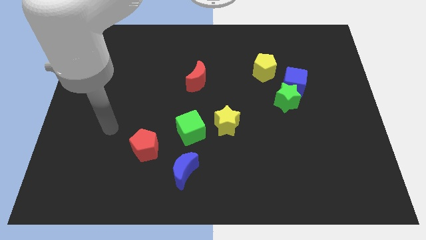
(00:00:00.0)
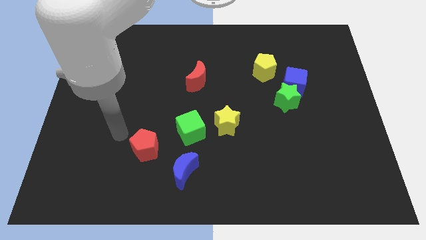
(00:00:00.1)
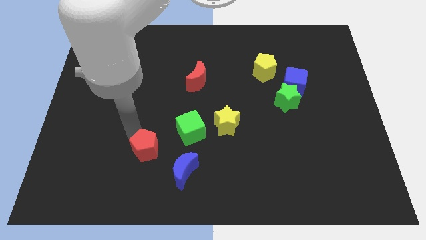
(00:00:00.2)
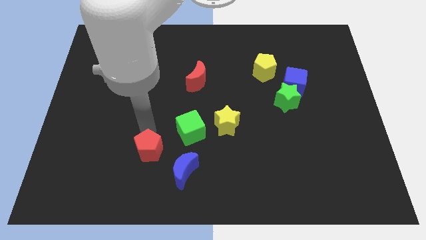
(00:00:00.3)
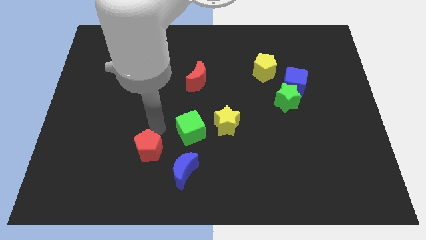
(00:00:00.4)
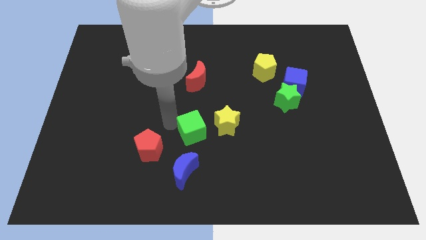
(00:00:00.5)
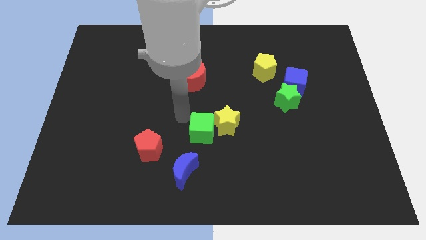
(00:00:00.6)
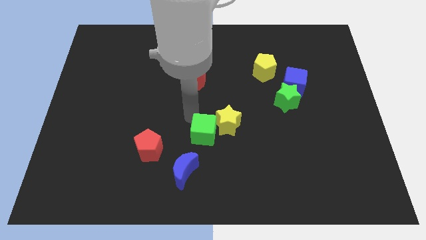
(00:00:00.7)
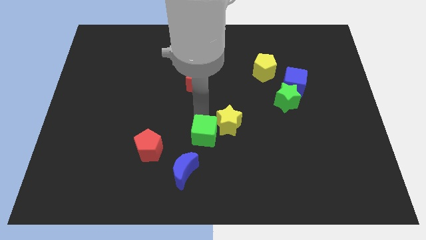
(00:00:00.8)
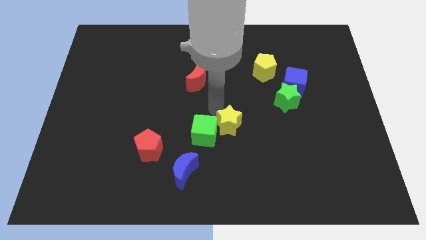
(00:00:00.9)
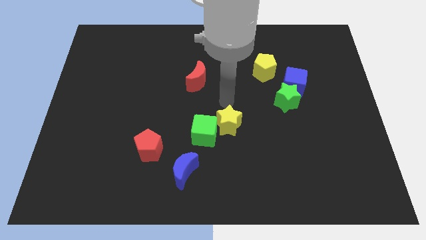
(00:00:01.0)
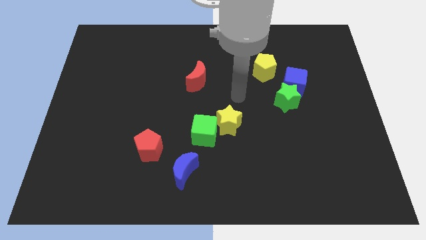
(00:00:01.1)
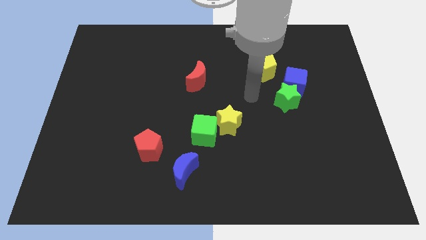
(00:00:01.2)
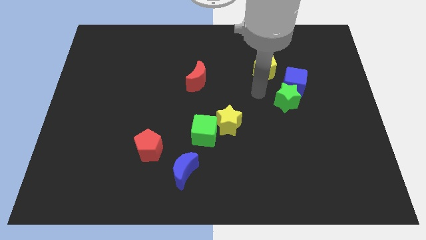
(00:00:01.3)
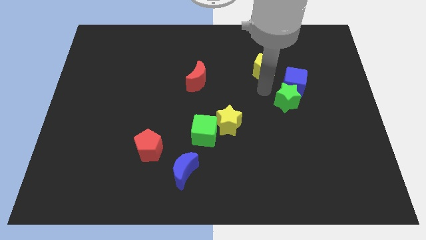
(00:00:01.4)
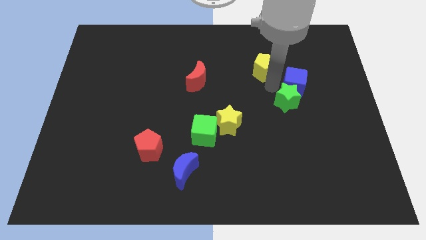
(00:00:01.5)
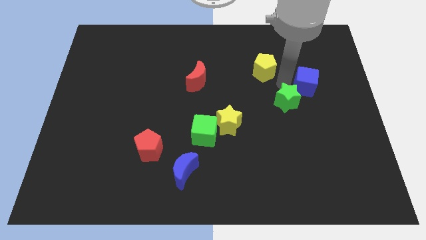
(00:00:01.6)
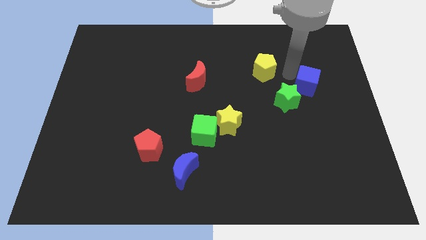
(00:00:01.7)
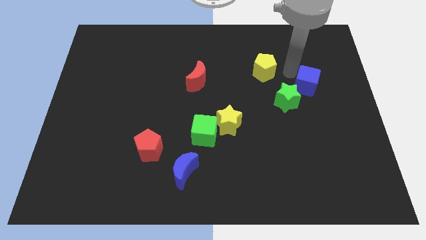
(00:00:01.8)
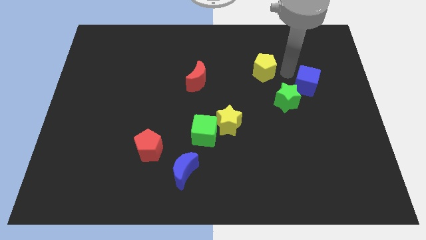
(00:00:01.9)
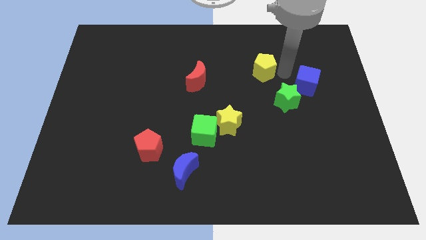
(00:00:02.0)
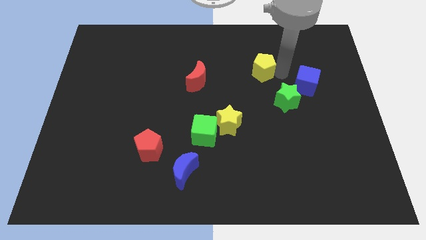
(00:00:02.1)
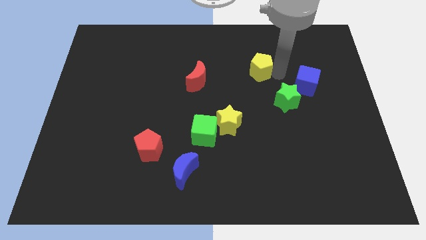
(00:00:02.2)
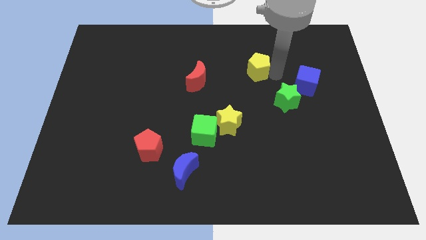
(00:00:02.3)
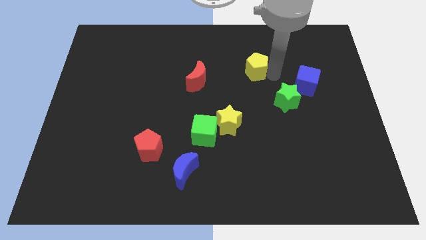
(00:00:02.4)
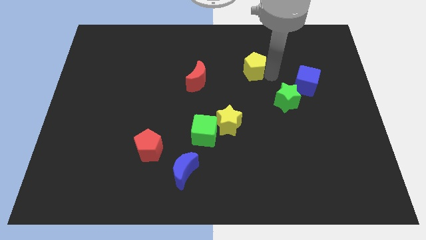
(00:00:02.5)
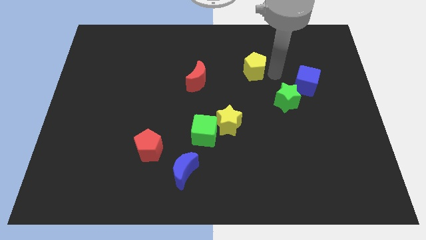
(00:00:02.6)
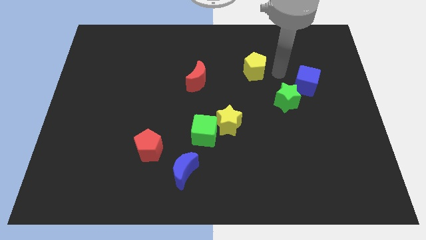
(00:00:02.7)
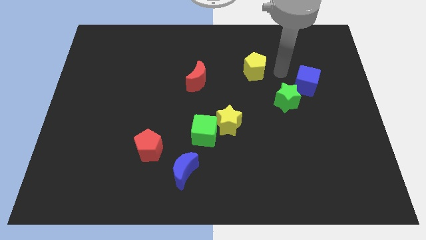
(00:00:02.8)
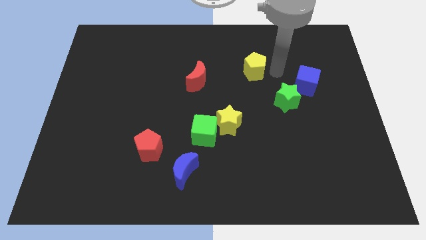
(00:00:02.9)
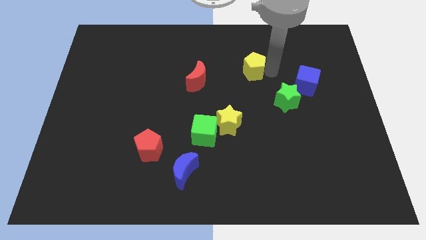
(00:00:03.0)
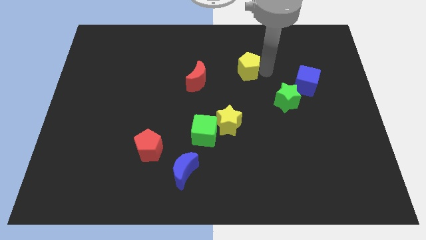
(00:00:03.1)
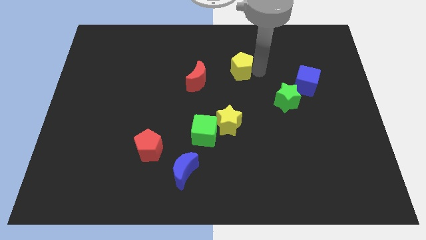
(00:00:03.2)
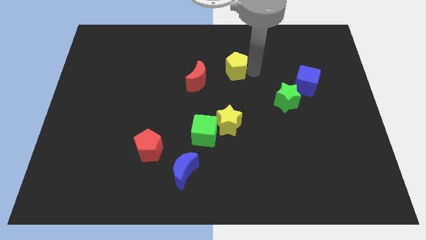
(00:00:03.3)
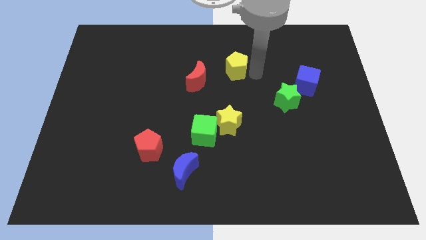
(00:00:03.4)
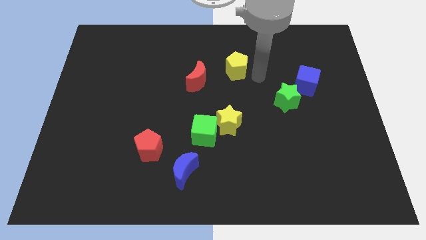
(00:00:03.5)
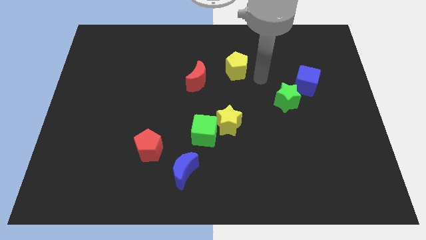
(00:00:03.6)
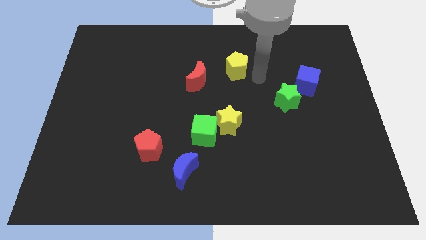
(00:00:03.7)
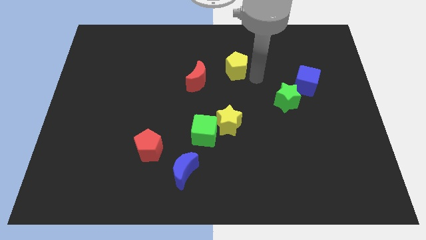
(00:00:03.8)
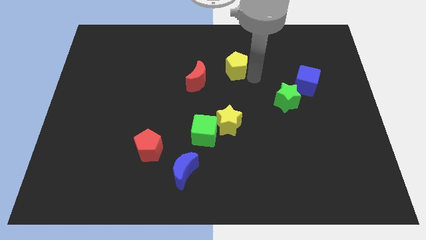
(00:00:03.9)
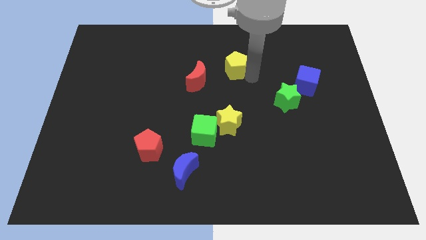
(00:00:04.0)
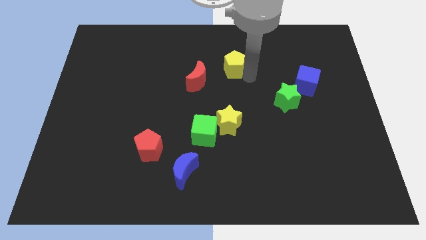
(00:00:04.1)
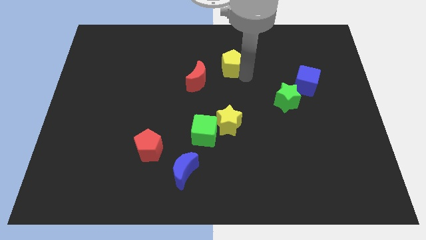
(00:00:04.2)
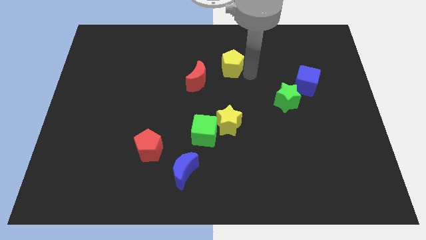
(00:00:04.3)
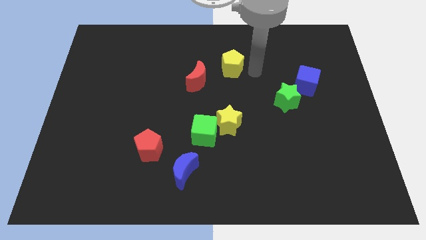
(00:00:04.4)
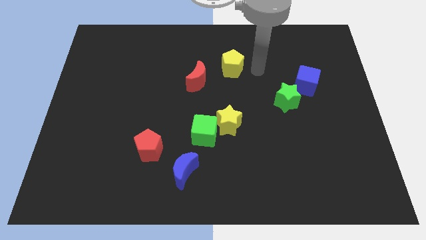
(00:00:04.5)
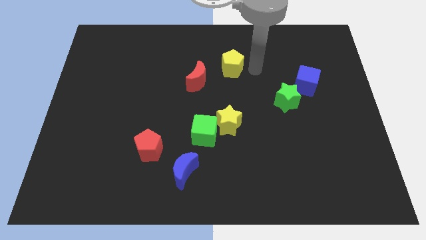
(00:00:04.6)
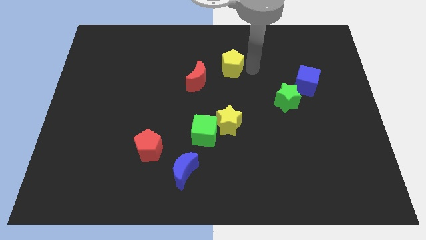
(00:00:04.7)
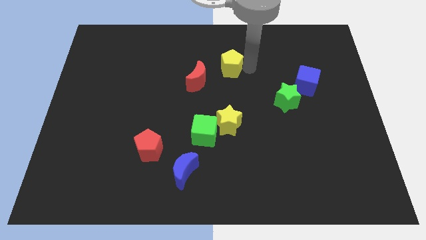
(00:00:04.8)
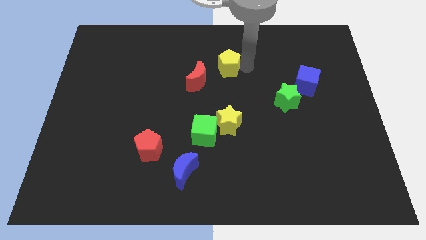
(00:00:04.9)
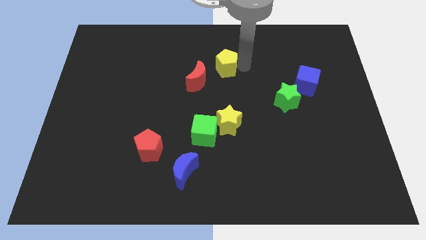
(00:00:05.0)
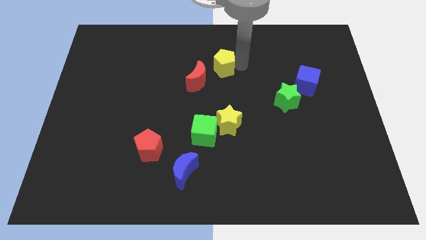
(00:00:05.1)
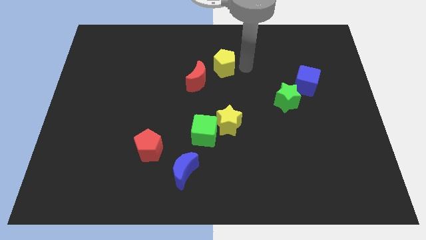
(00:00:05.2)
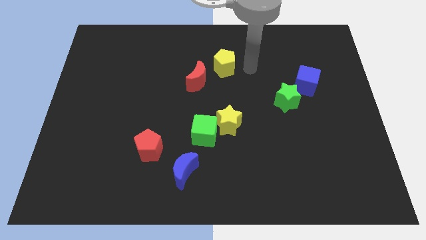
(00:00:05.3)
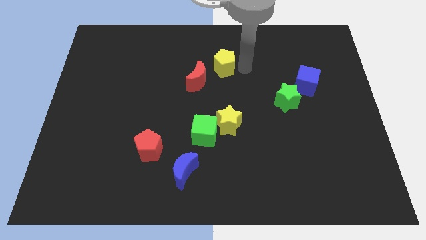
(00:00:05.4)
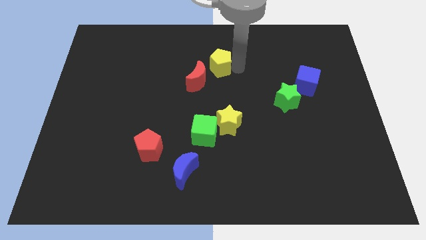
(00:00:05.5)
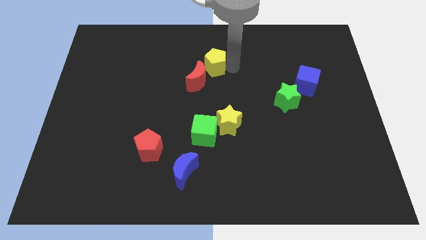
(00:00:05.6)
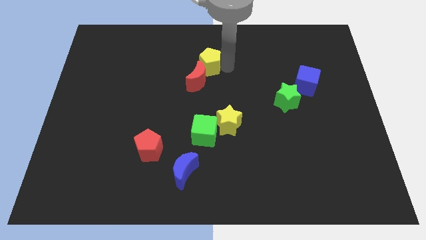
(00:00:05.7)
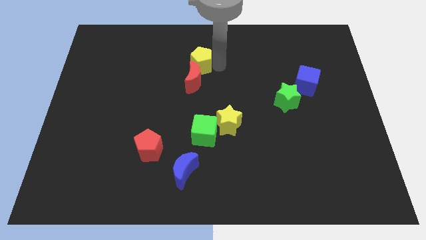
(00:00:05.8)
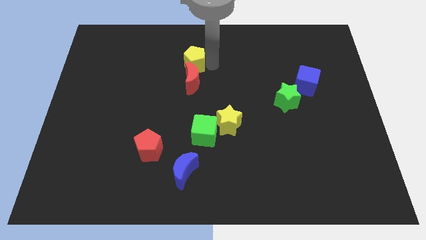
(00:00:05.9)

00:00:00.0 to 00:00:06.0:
put the yellow pentagon to the top left of the red moon

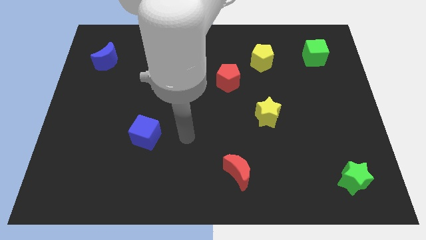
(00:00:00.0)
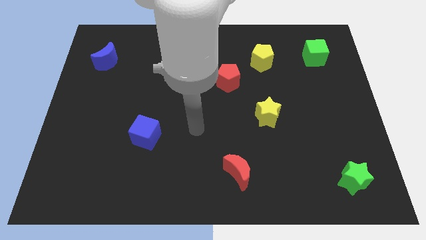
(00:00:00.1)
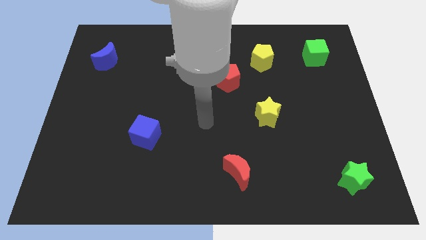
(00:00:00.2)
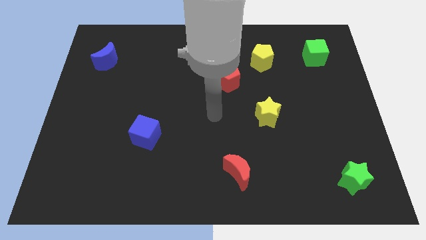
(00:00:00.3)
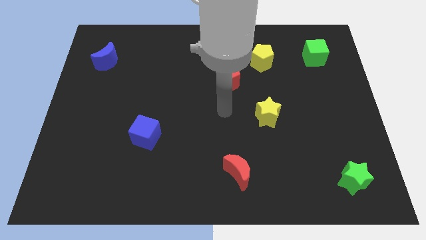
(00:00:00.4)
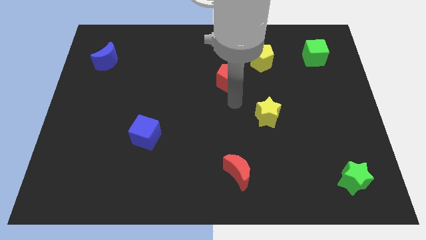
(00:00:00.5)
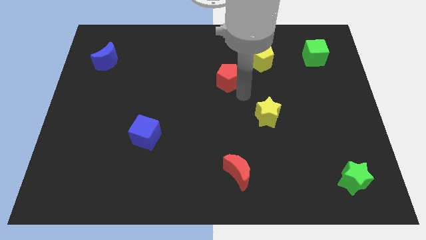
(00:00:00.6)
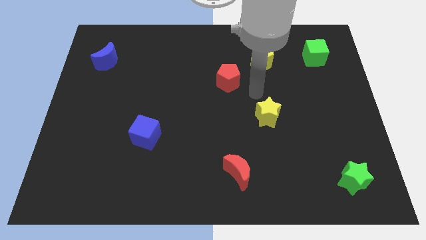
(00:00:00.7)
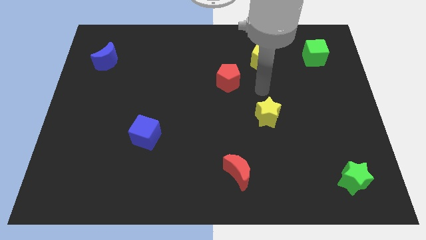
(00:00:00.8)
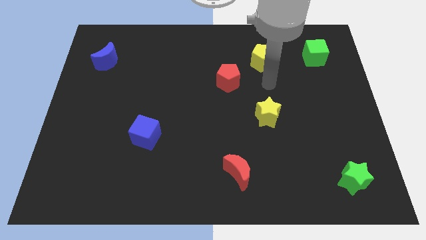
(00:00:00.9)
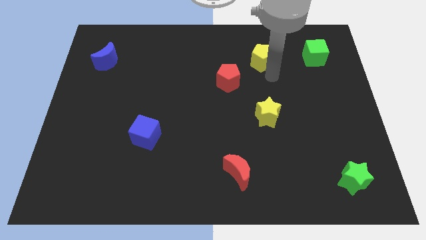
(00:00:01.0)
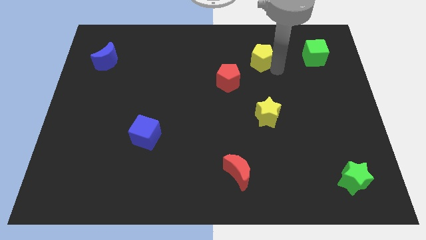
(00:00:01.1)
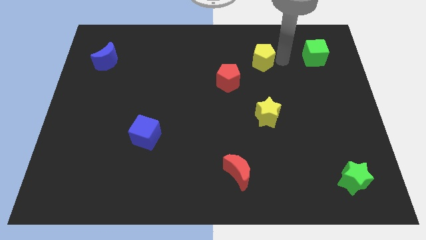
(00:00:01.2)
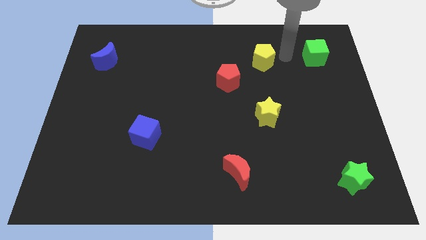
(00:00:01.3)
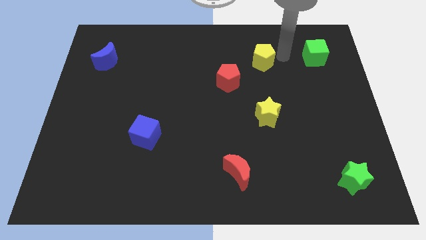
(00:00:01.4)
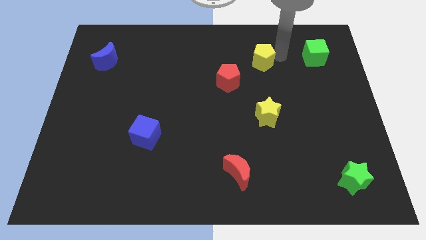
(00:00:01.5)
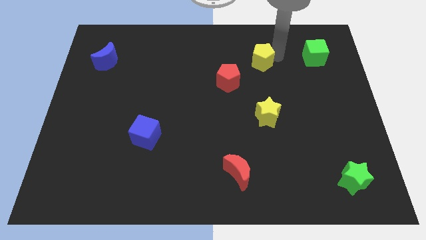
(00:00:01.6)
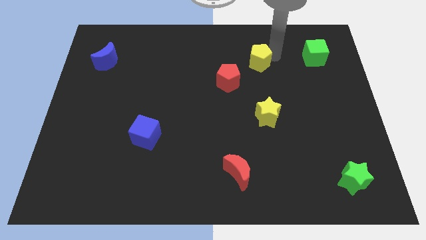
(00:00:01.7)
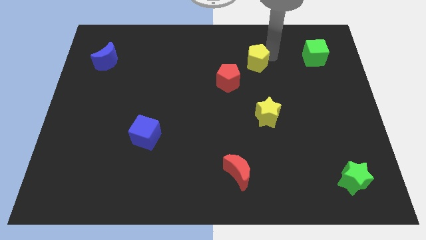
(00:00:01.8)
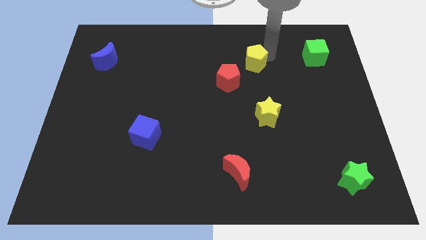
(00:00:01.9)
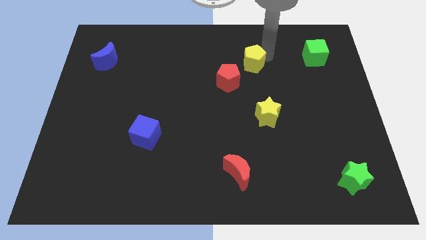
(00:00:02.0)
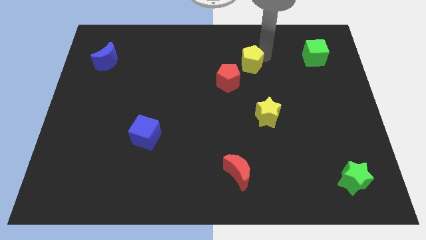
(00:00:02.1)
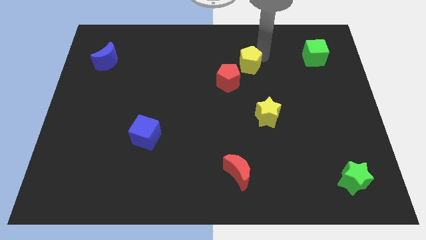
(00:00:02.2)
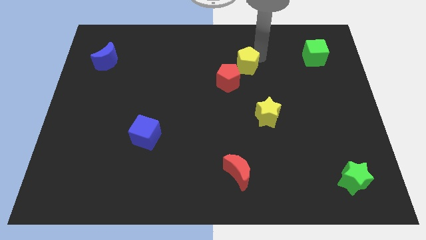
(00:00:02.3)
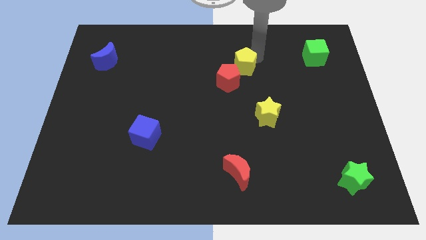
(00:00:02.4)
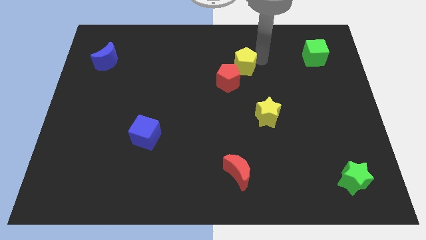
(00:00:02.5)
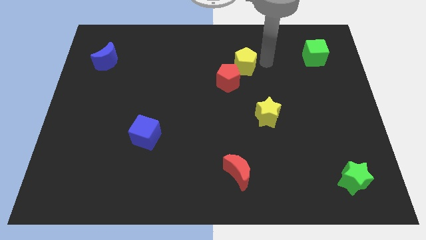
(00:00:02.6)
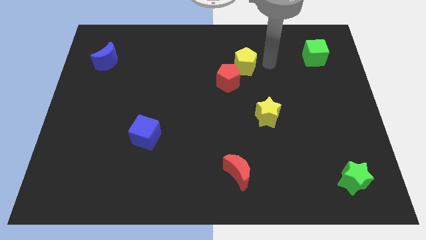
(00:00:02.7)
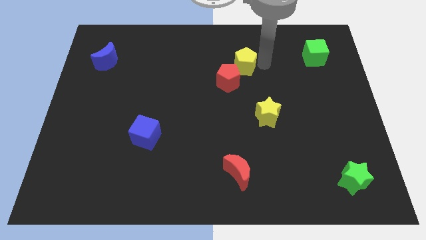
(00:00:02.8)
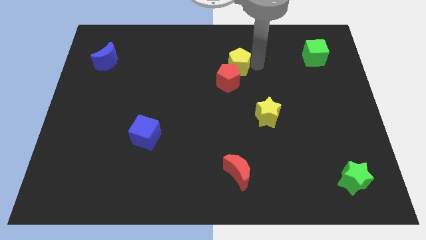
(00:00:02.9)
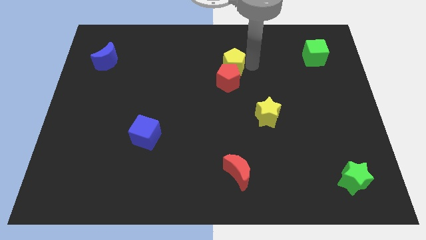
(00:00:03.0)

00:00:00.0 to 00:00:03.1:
push the yellow pentagon to the top left side of the red pentagon
